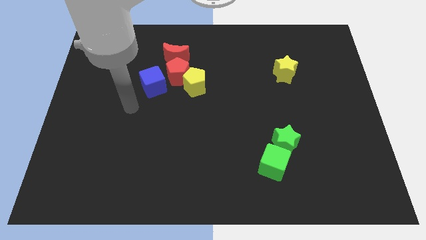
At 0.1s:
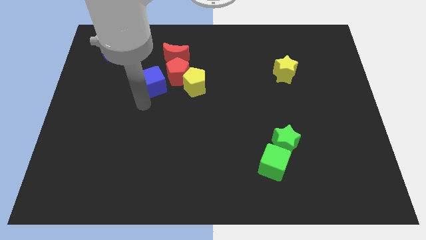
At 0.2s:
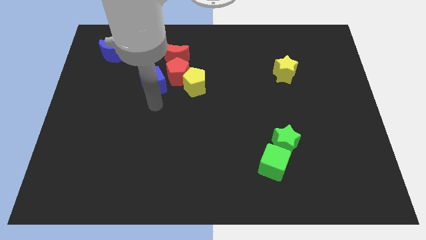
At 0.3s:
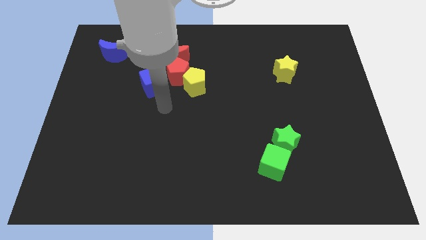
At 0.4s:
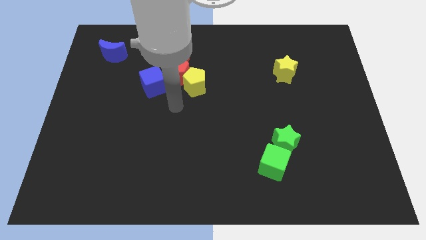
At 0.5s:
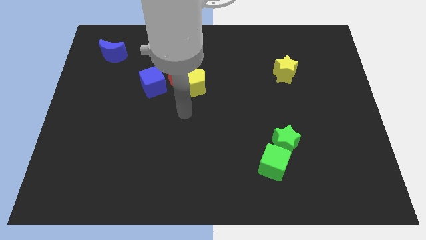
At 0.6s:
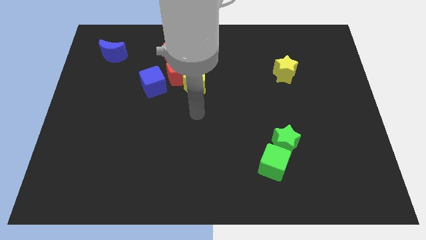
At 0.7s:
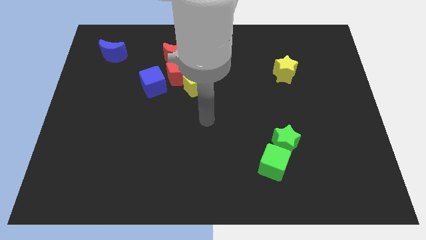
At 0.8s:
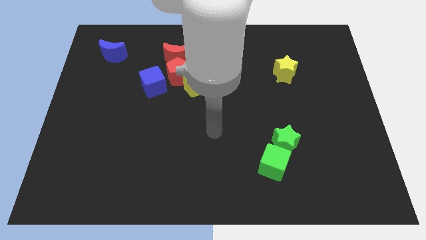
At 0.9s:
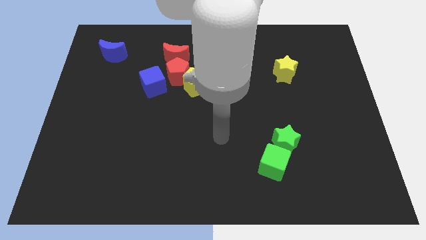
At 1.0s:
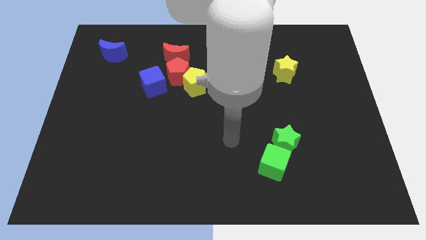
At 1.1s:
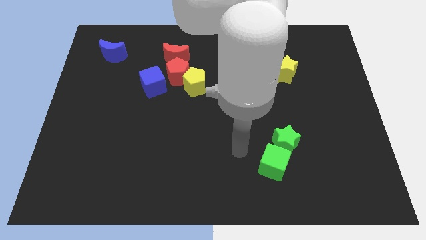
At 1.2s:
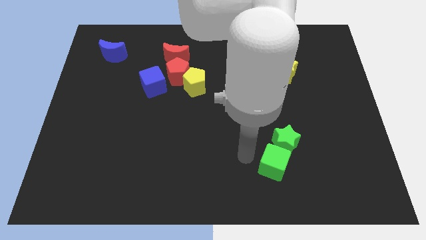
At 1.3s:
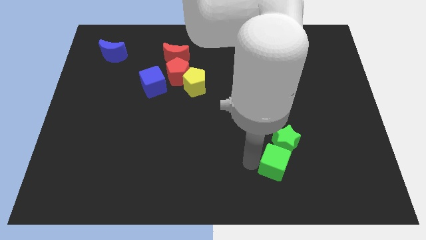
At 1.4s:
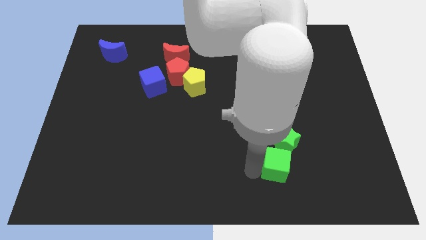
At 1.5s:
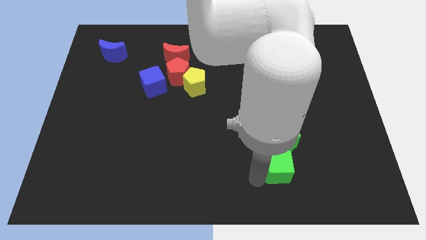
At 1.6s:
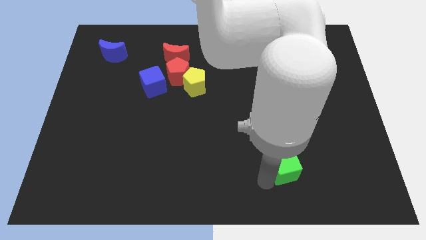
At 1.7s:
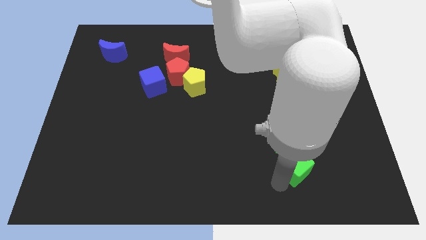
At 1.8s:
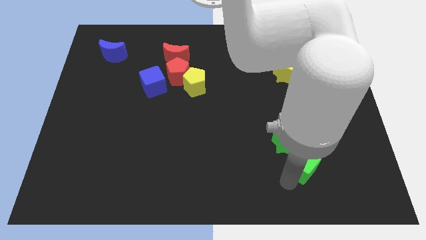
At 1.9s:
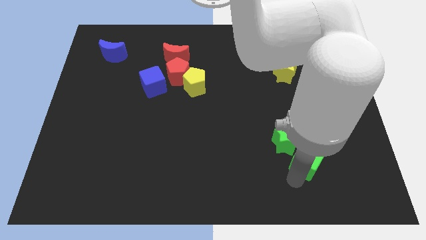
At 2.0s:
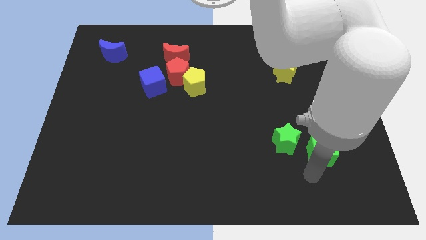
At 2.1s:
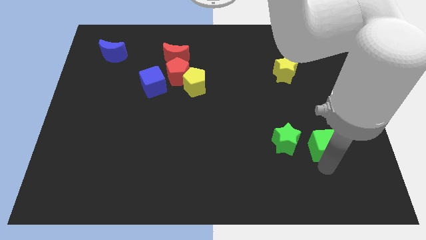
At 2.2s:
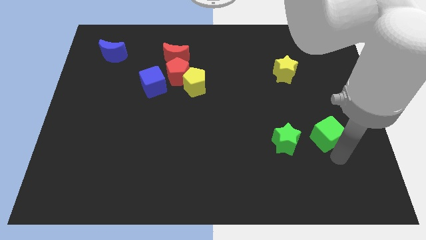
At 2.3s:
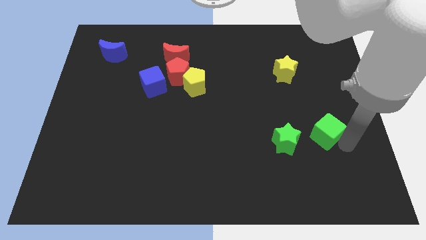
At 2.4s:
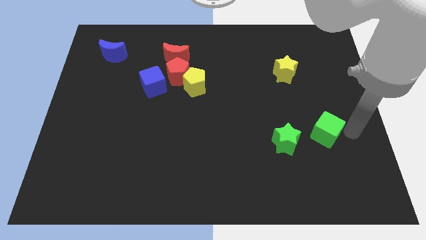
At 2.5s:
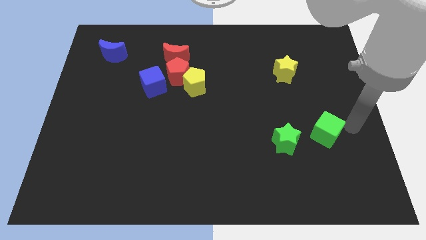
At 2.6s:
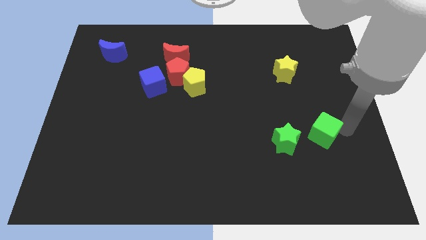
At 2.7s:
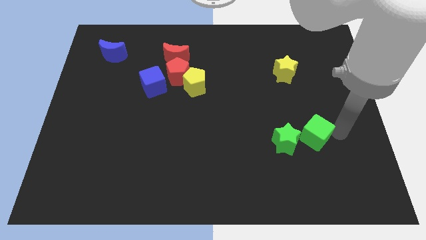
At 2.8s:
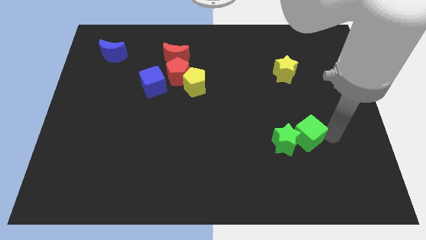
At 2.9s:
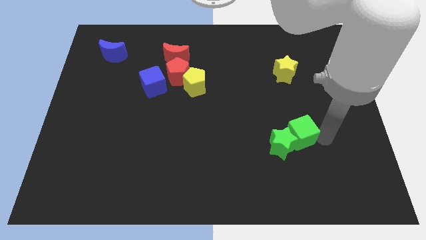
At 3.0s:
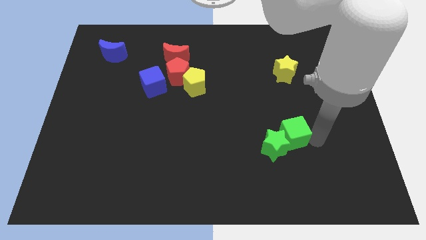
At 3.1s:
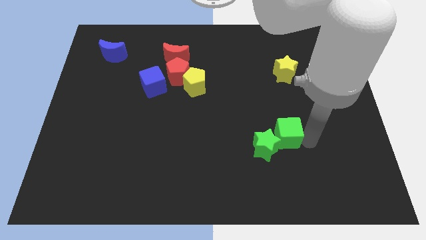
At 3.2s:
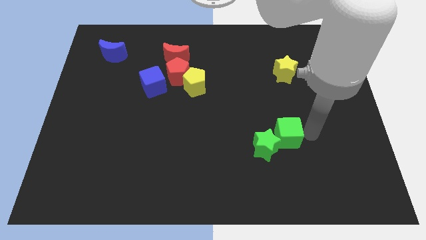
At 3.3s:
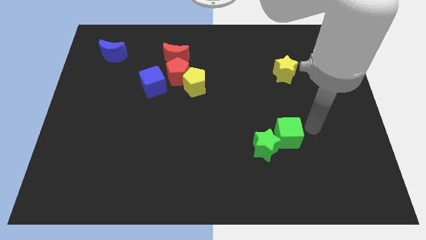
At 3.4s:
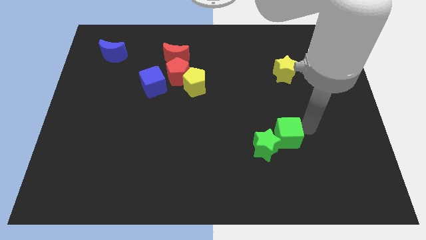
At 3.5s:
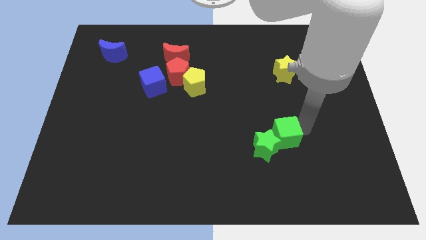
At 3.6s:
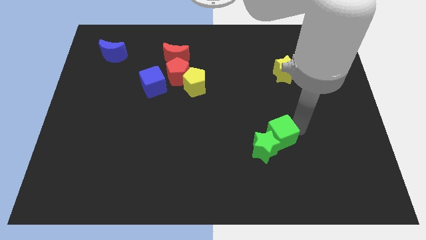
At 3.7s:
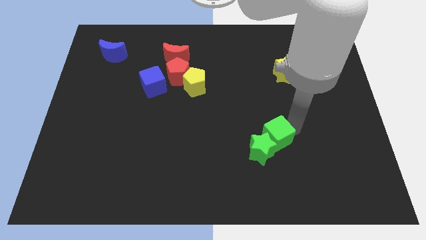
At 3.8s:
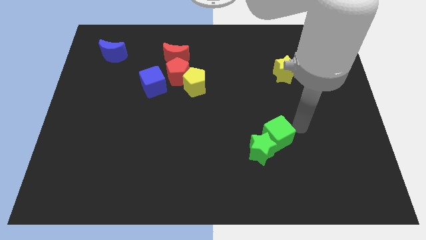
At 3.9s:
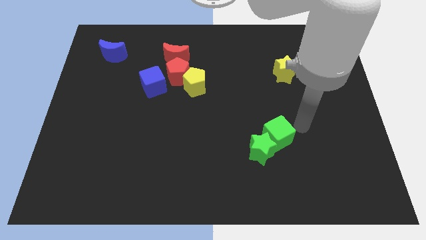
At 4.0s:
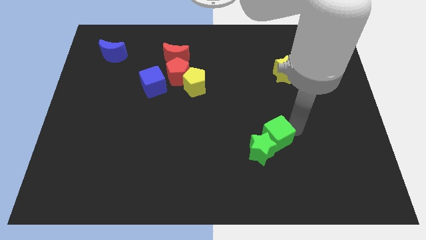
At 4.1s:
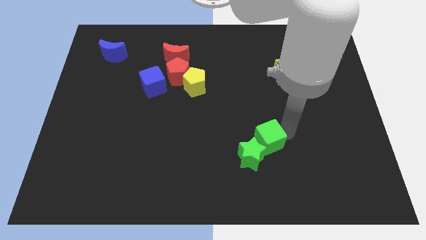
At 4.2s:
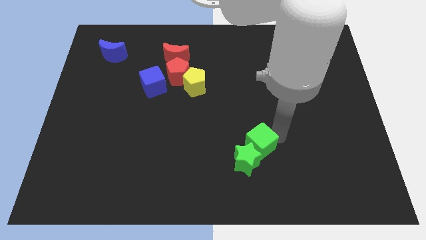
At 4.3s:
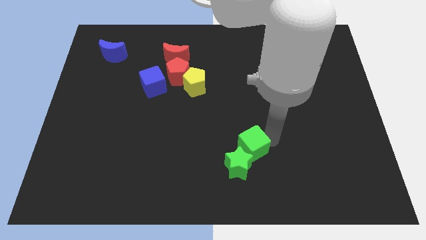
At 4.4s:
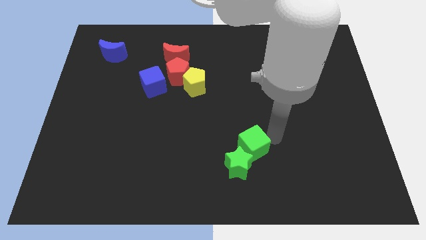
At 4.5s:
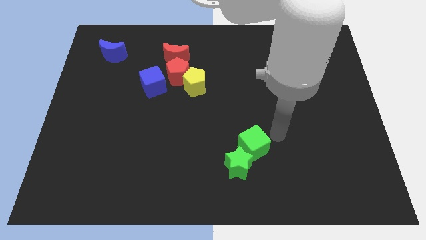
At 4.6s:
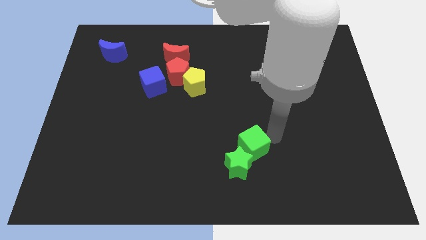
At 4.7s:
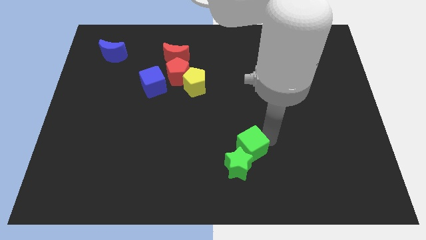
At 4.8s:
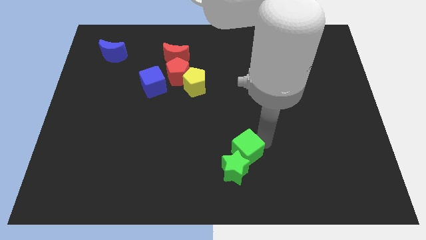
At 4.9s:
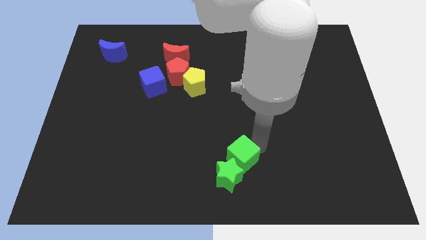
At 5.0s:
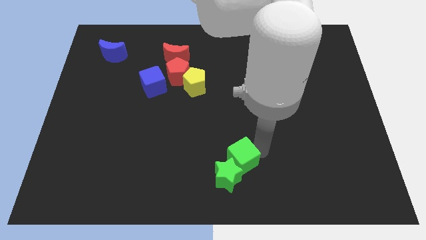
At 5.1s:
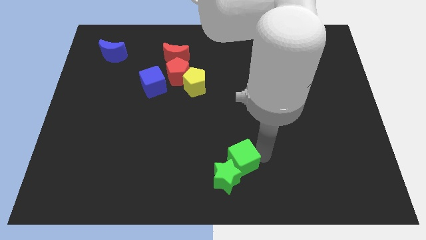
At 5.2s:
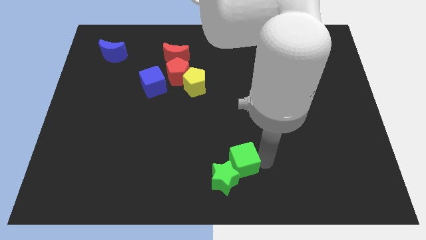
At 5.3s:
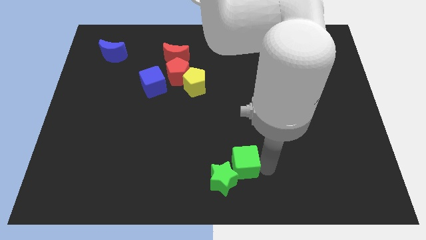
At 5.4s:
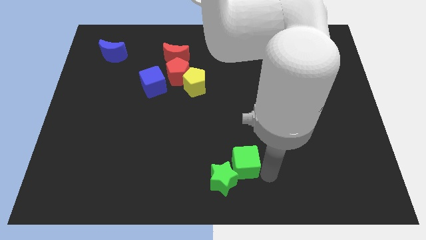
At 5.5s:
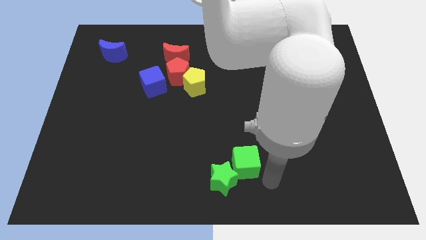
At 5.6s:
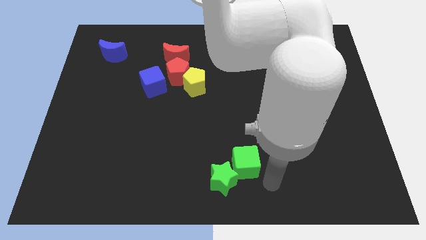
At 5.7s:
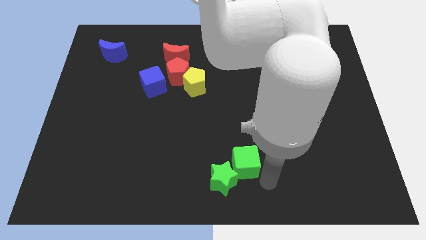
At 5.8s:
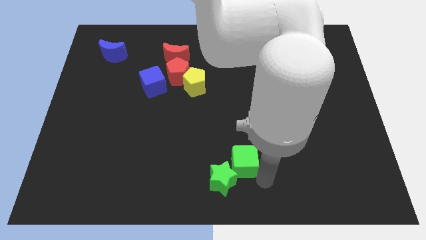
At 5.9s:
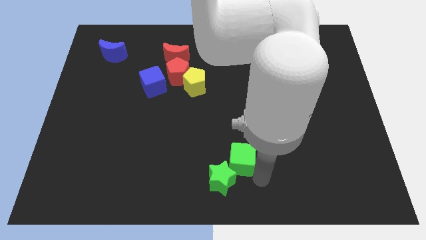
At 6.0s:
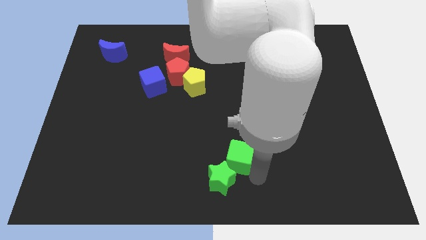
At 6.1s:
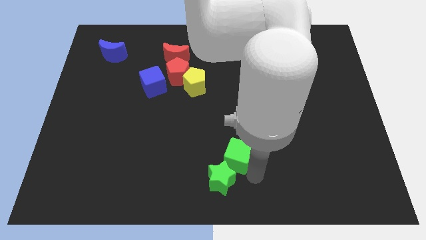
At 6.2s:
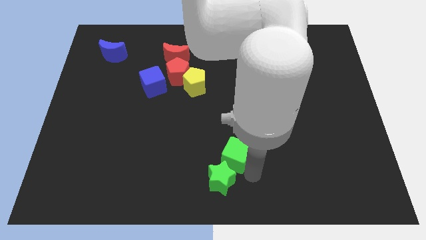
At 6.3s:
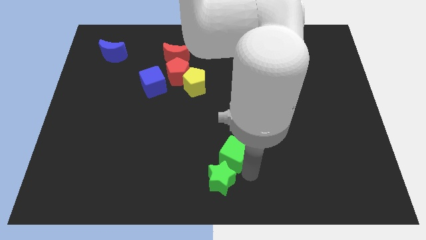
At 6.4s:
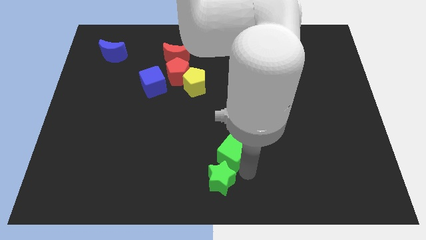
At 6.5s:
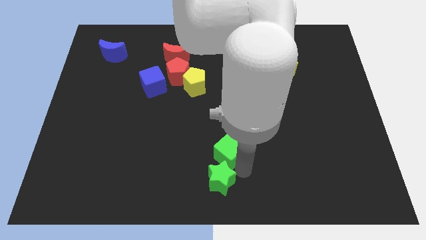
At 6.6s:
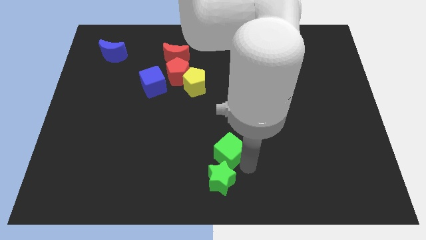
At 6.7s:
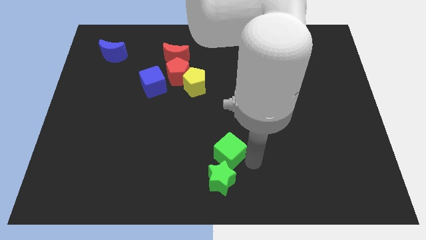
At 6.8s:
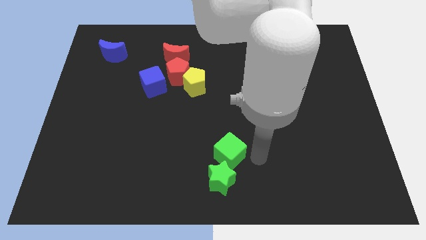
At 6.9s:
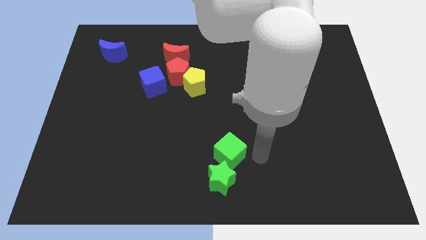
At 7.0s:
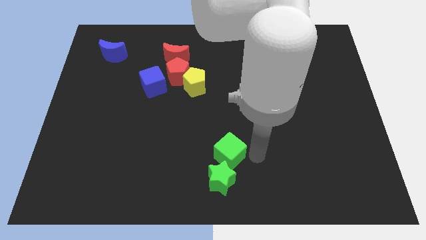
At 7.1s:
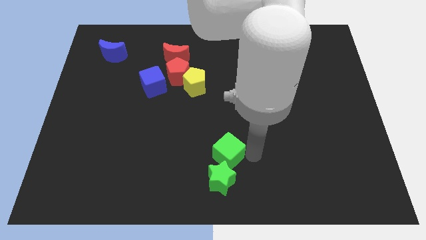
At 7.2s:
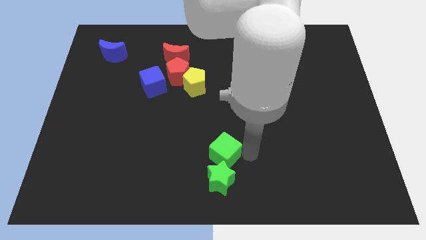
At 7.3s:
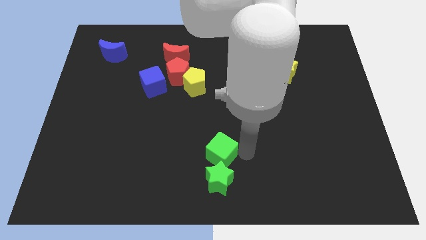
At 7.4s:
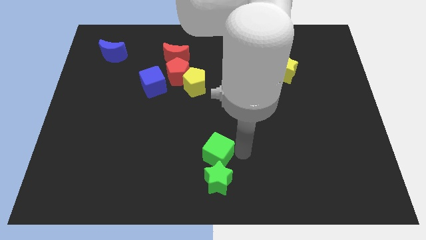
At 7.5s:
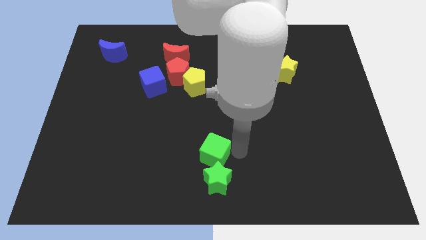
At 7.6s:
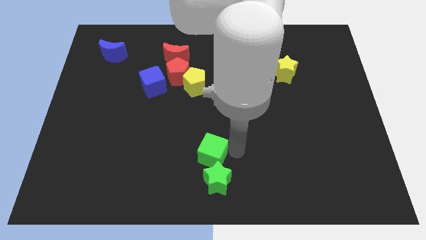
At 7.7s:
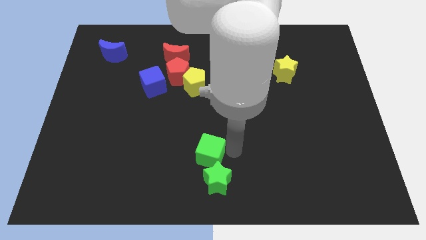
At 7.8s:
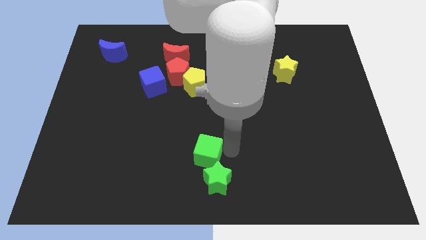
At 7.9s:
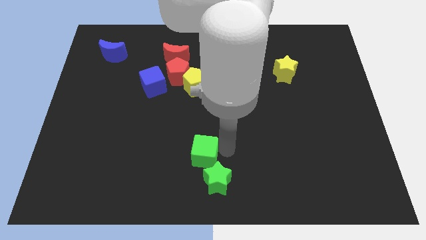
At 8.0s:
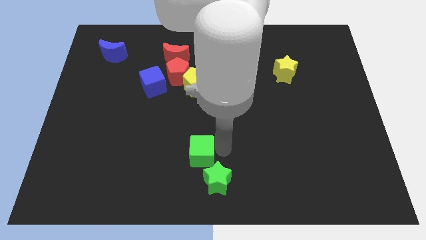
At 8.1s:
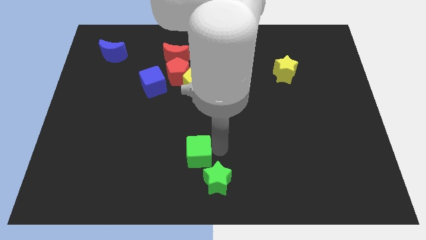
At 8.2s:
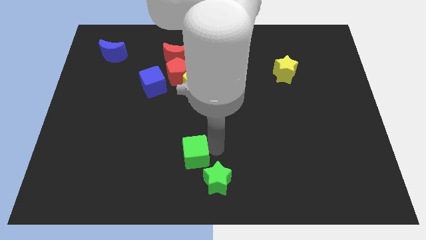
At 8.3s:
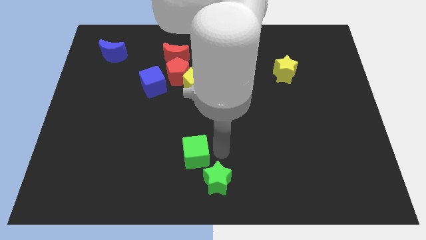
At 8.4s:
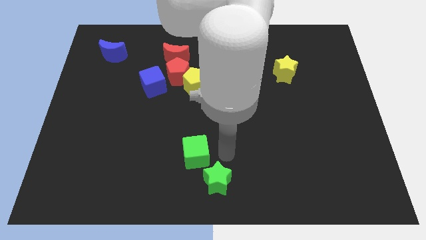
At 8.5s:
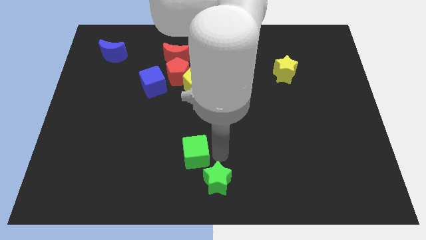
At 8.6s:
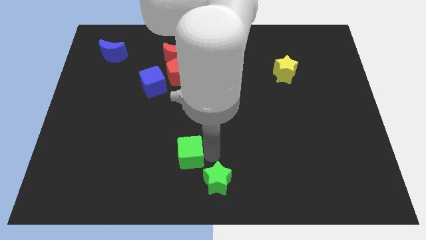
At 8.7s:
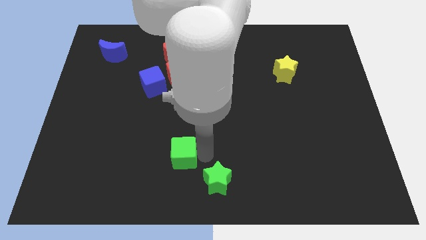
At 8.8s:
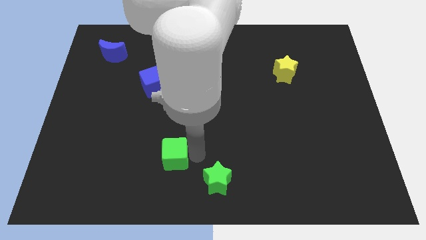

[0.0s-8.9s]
move the green cube to the left
